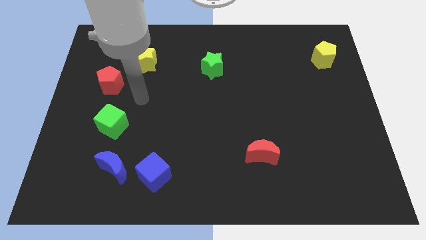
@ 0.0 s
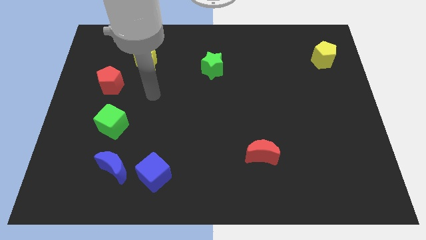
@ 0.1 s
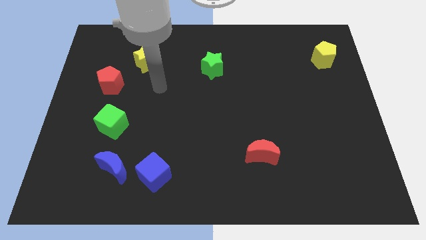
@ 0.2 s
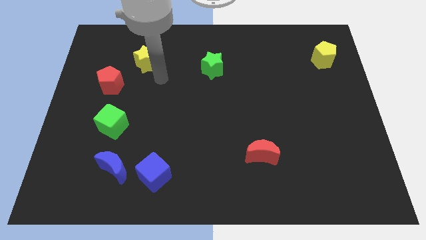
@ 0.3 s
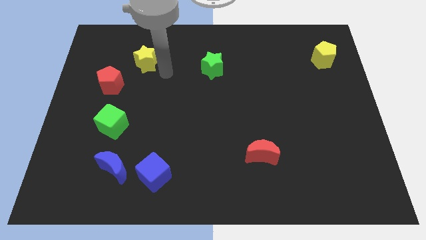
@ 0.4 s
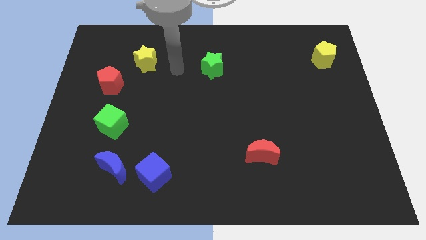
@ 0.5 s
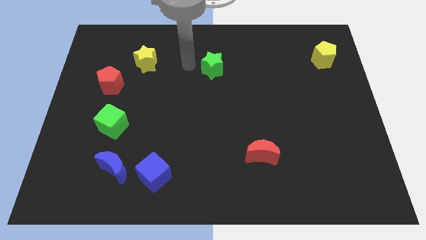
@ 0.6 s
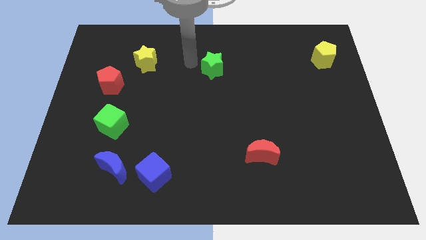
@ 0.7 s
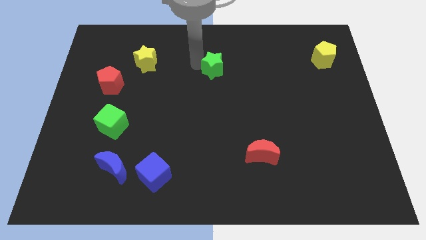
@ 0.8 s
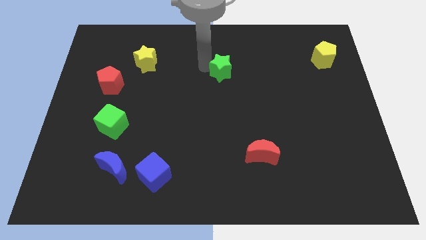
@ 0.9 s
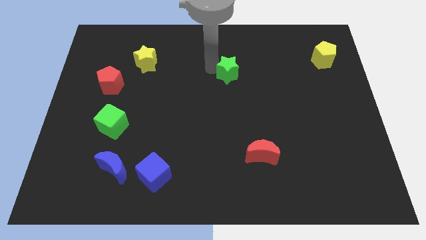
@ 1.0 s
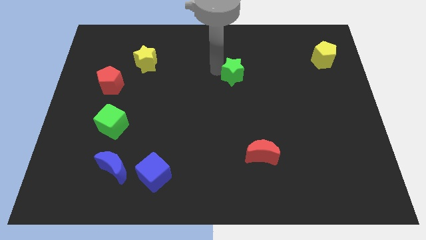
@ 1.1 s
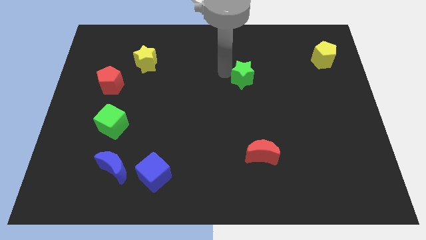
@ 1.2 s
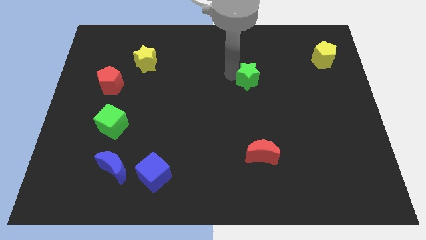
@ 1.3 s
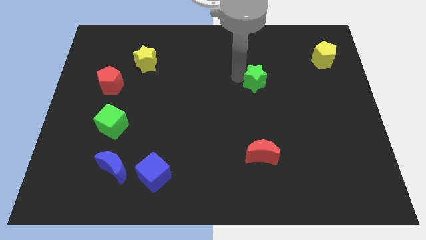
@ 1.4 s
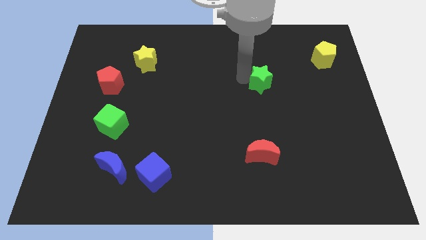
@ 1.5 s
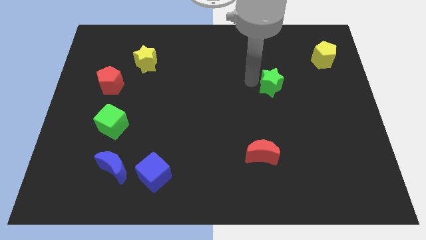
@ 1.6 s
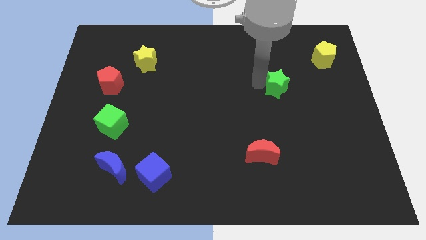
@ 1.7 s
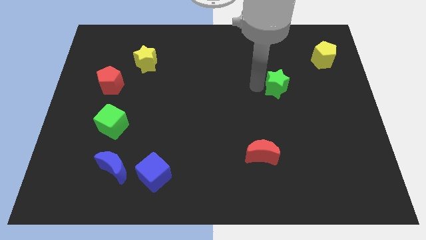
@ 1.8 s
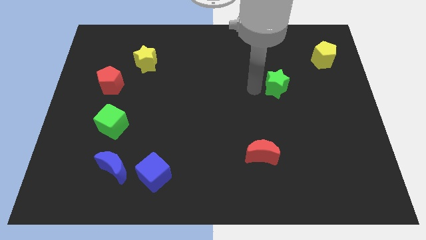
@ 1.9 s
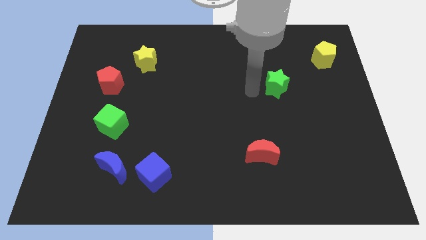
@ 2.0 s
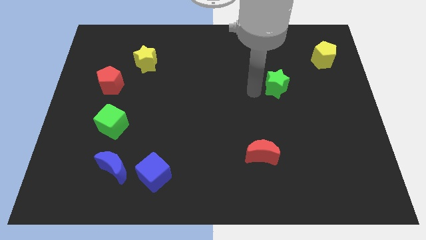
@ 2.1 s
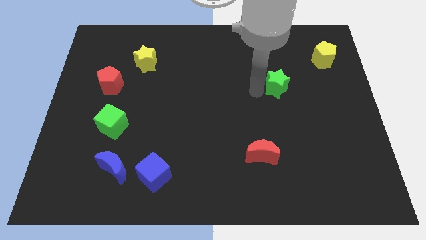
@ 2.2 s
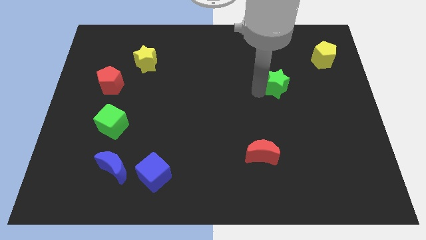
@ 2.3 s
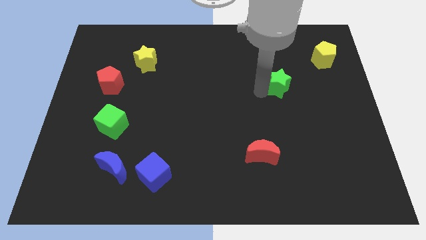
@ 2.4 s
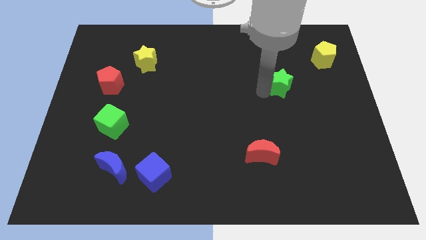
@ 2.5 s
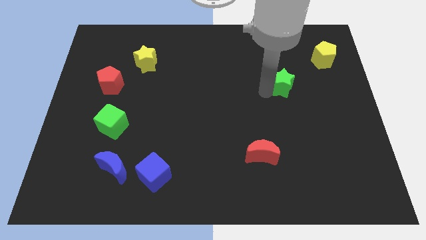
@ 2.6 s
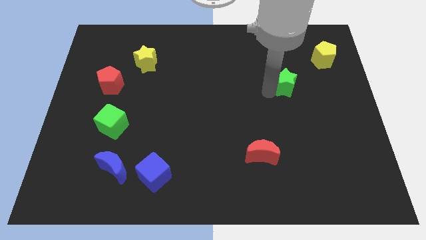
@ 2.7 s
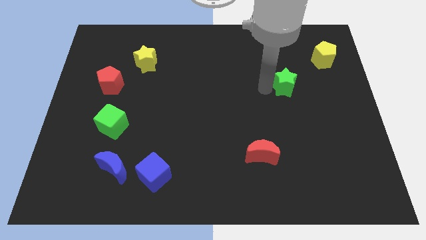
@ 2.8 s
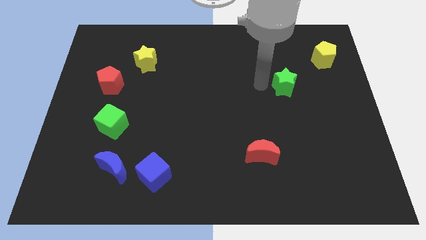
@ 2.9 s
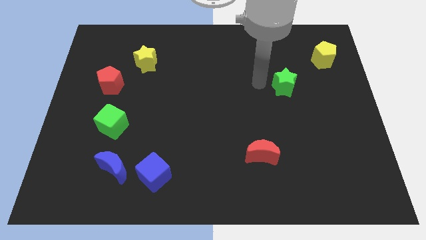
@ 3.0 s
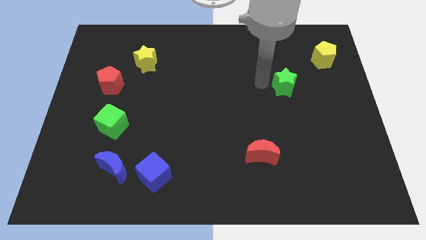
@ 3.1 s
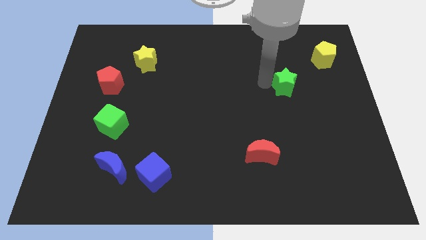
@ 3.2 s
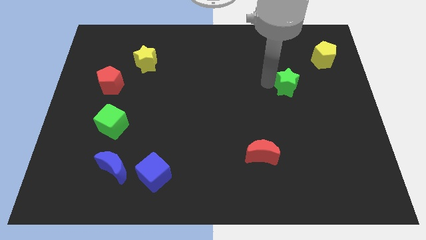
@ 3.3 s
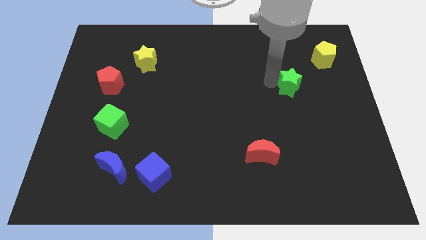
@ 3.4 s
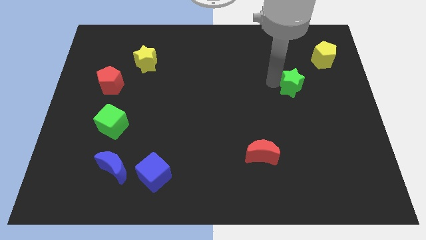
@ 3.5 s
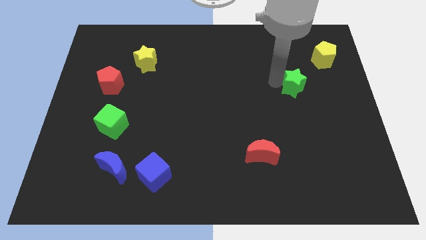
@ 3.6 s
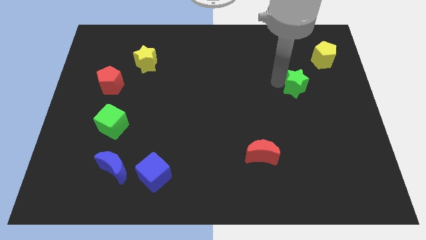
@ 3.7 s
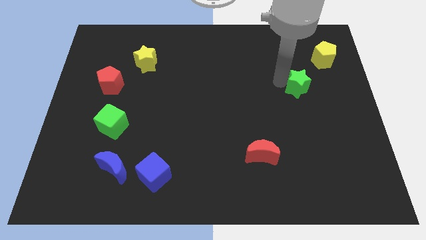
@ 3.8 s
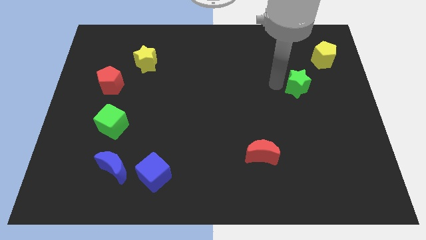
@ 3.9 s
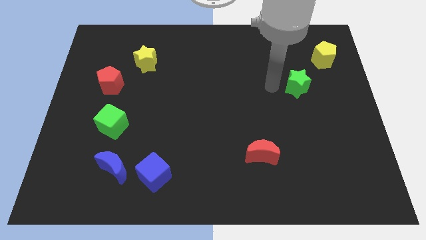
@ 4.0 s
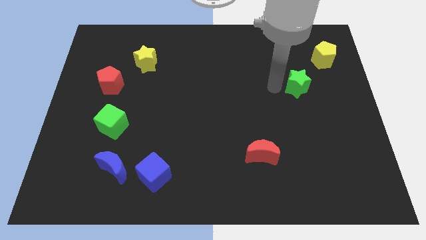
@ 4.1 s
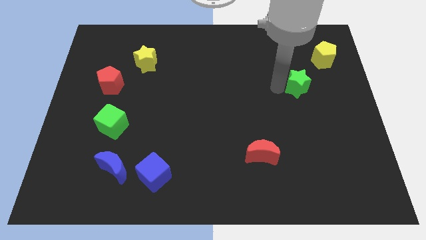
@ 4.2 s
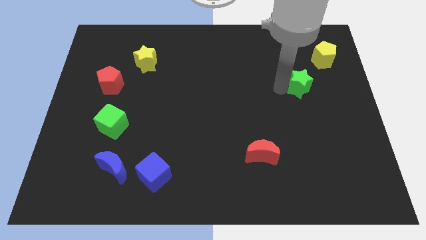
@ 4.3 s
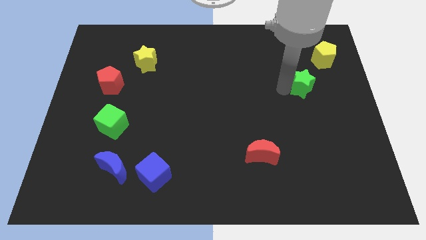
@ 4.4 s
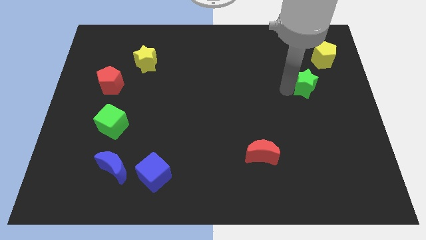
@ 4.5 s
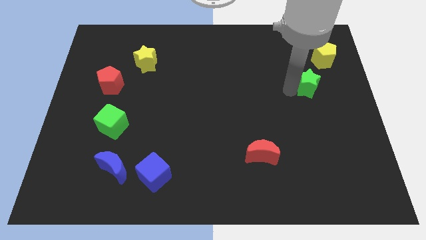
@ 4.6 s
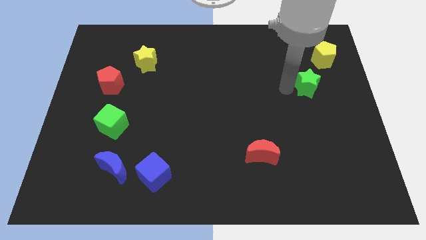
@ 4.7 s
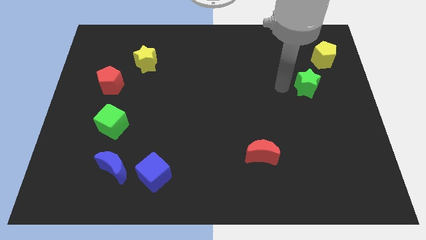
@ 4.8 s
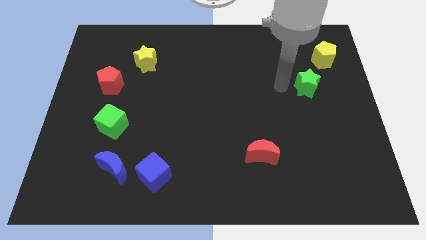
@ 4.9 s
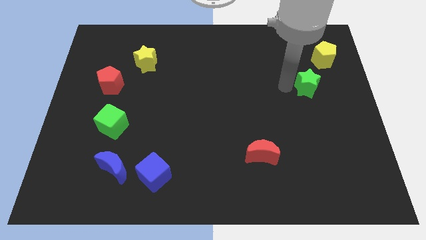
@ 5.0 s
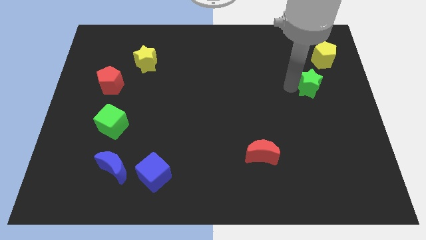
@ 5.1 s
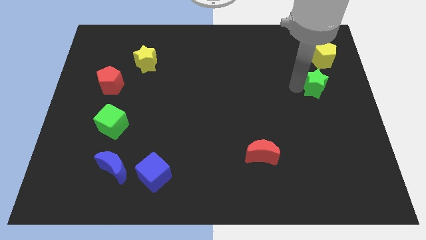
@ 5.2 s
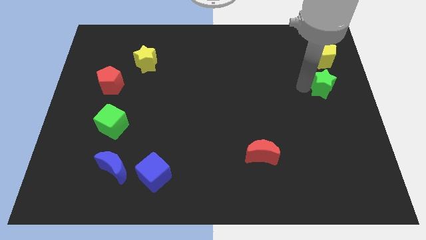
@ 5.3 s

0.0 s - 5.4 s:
slide the green star to the right side

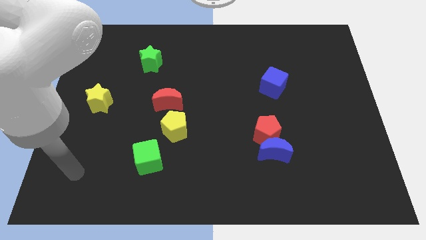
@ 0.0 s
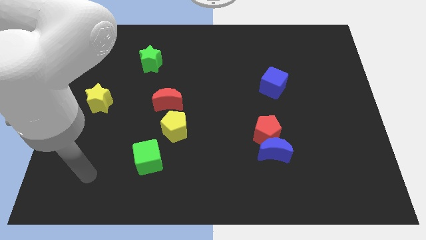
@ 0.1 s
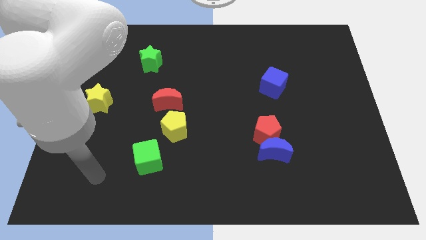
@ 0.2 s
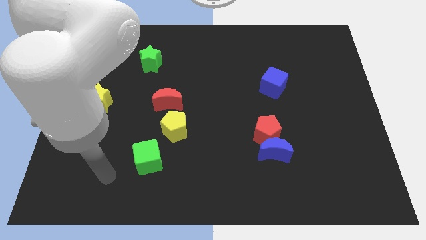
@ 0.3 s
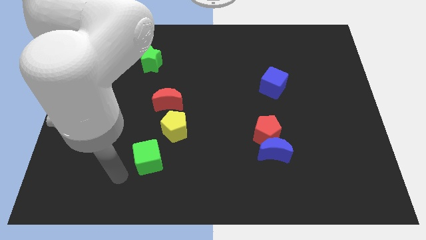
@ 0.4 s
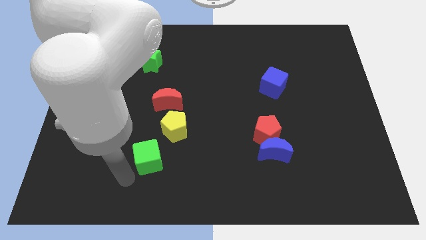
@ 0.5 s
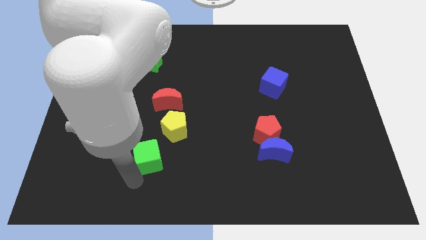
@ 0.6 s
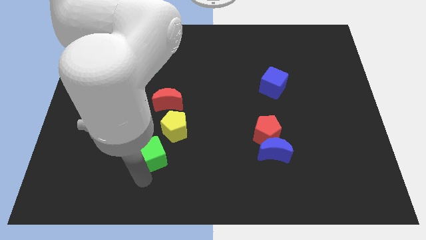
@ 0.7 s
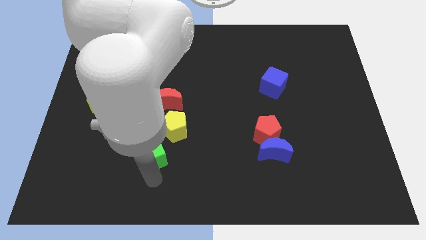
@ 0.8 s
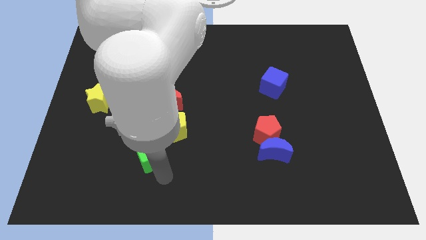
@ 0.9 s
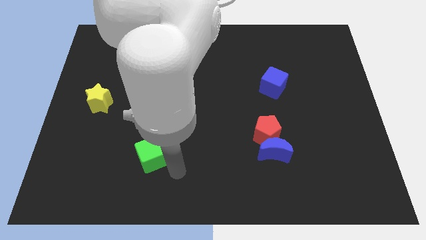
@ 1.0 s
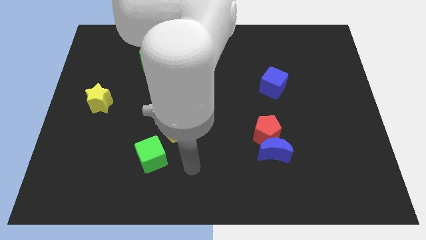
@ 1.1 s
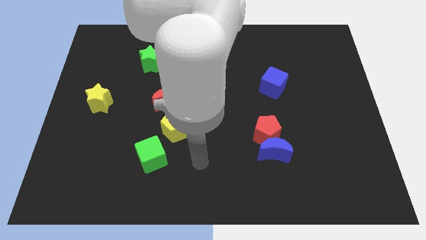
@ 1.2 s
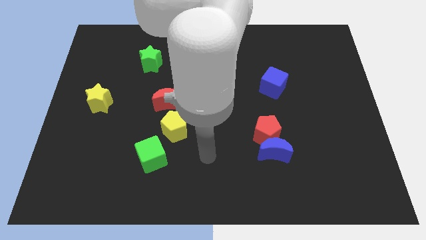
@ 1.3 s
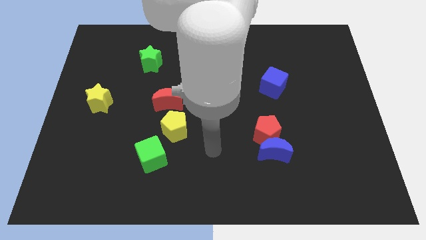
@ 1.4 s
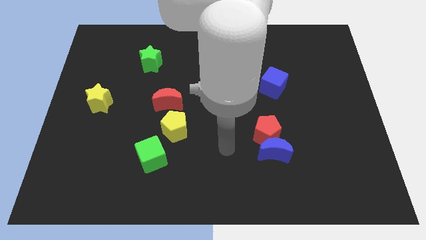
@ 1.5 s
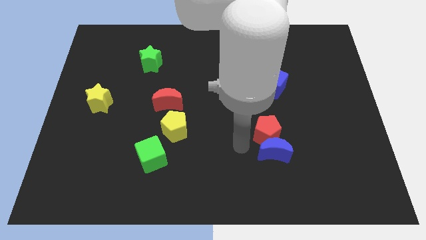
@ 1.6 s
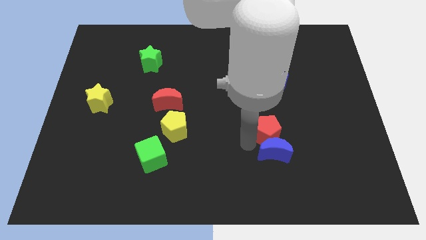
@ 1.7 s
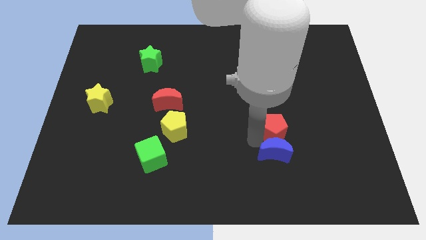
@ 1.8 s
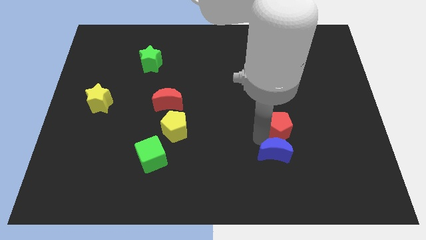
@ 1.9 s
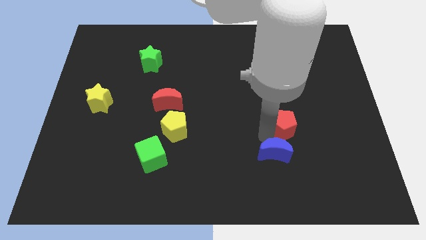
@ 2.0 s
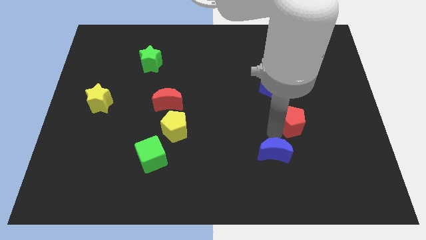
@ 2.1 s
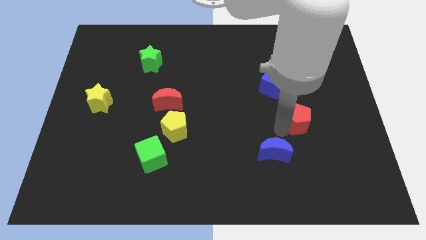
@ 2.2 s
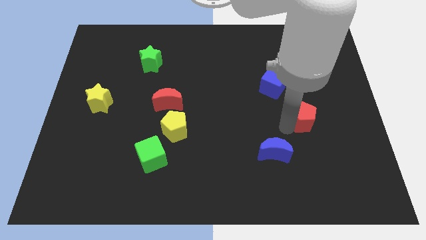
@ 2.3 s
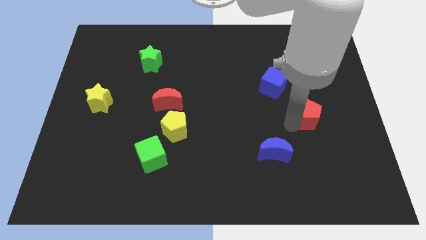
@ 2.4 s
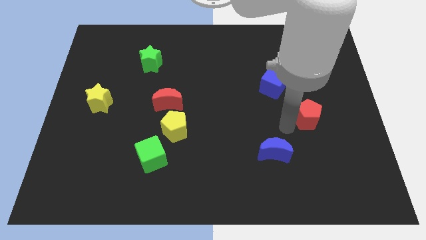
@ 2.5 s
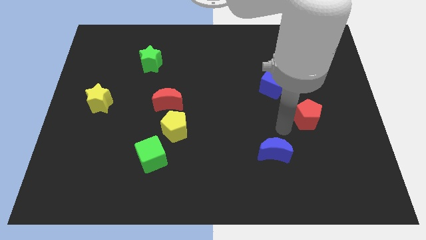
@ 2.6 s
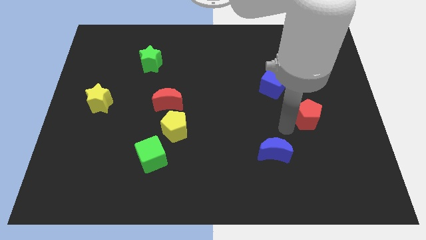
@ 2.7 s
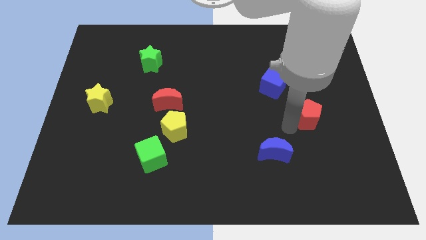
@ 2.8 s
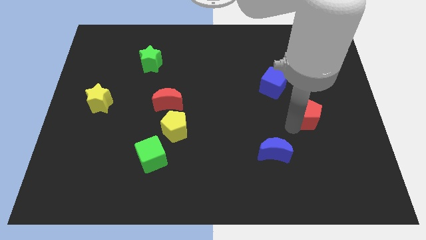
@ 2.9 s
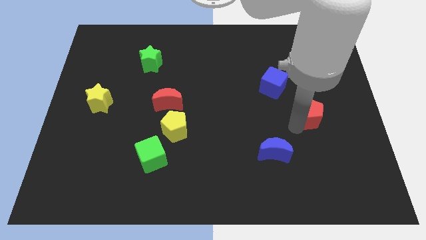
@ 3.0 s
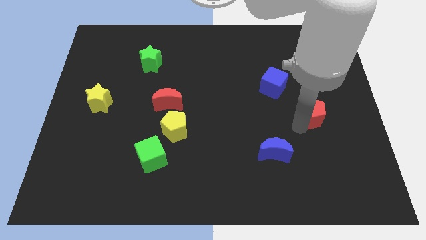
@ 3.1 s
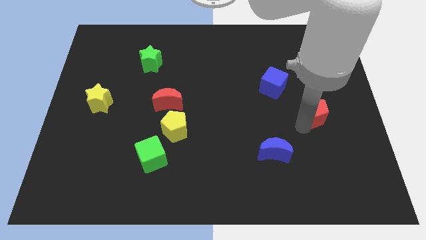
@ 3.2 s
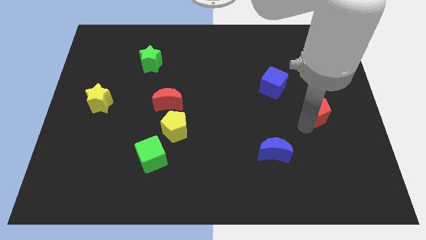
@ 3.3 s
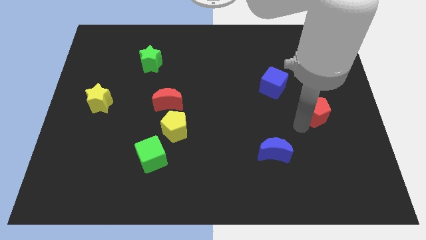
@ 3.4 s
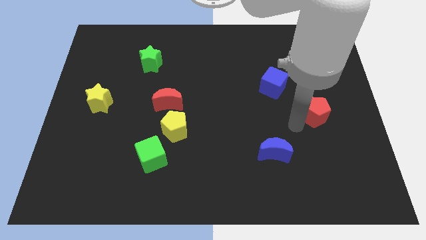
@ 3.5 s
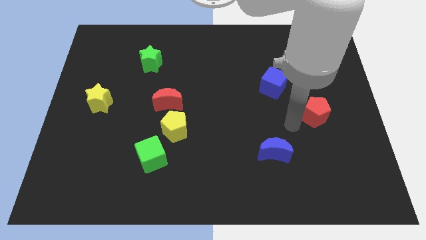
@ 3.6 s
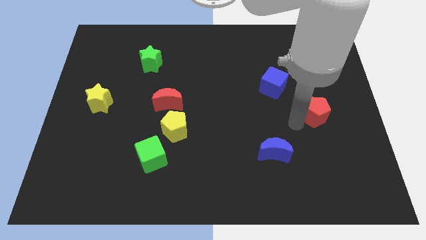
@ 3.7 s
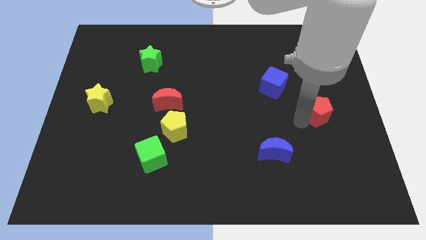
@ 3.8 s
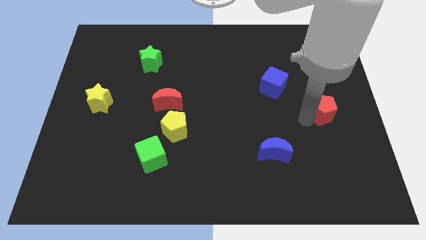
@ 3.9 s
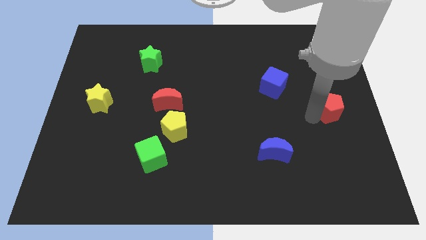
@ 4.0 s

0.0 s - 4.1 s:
push the red pentagon to the center right
